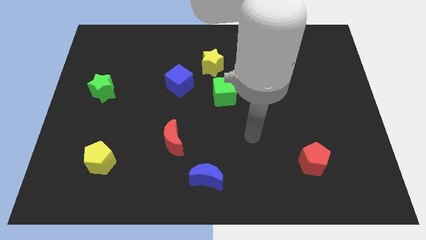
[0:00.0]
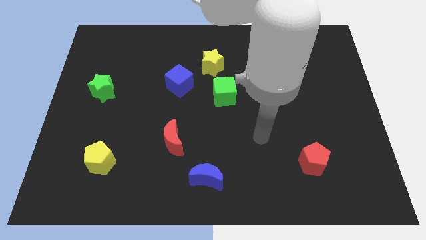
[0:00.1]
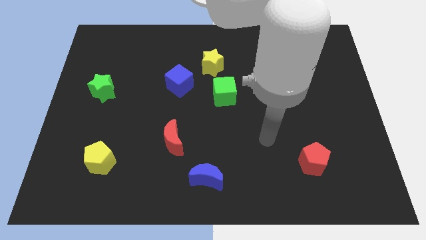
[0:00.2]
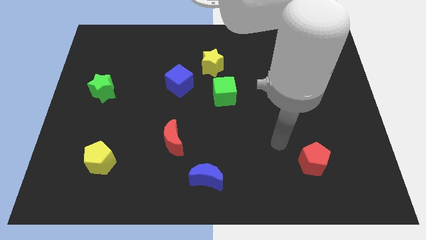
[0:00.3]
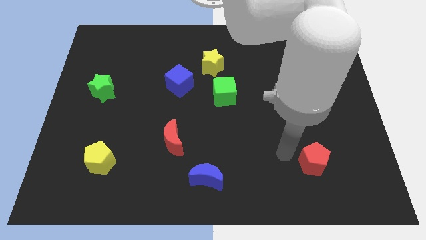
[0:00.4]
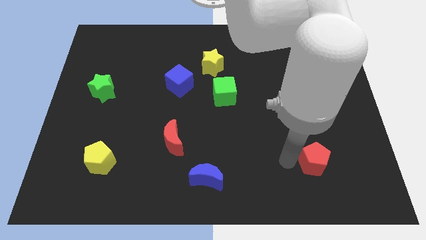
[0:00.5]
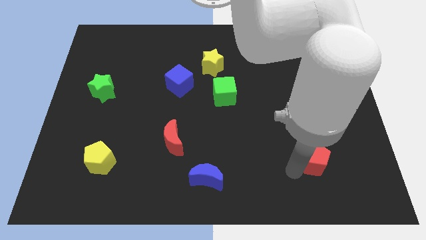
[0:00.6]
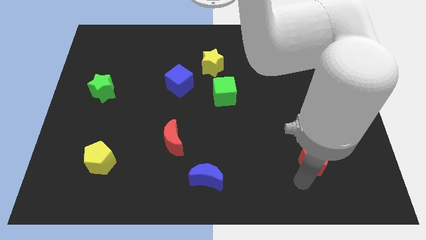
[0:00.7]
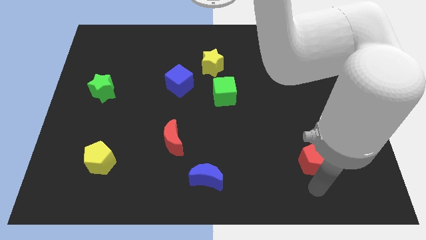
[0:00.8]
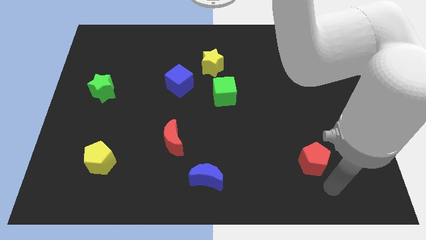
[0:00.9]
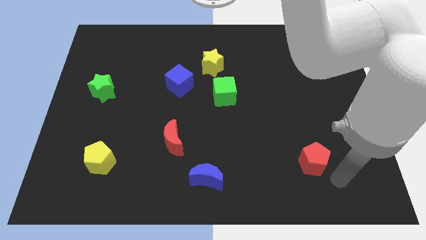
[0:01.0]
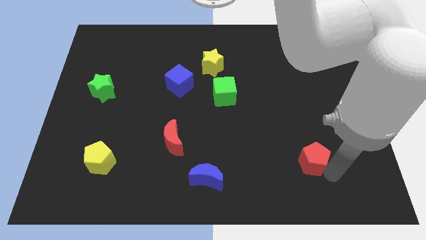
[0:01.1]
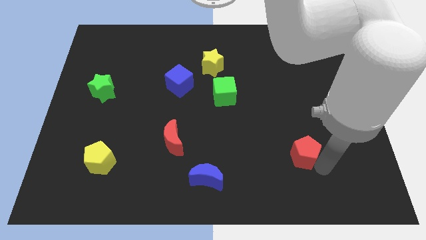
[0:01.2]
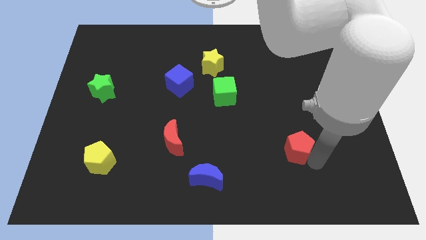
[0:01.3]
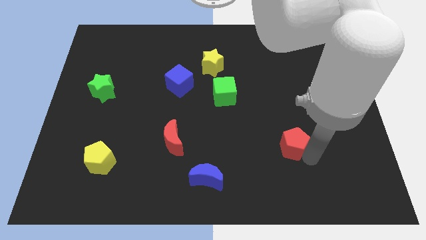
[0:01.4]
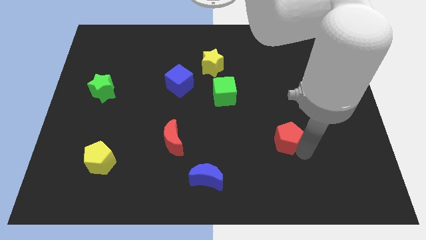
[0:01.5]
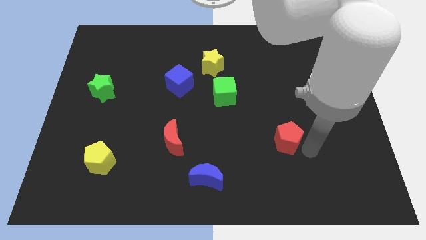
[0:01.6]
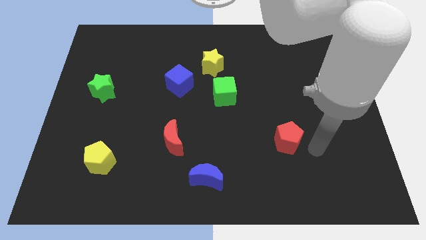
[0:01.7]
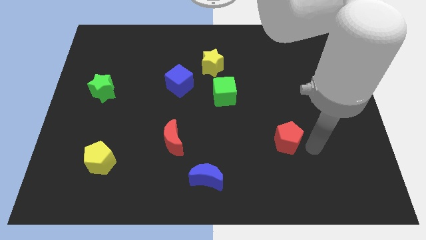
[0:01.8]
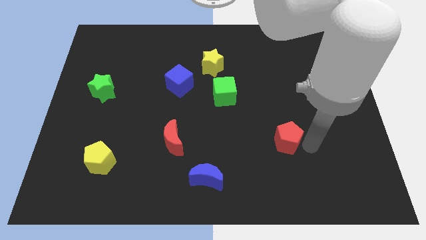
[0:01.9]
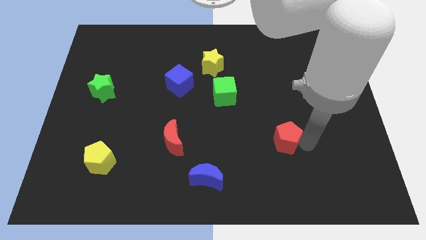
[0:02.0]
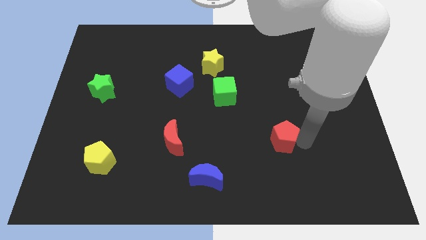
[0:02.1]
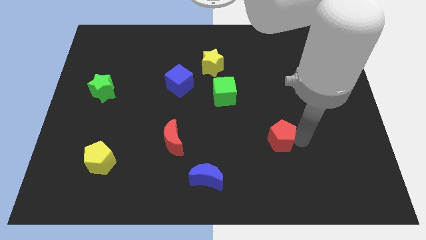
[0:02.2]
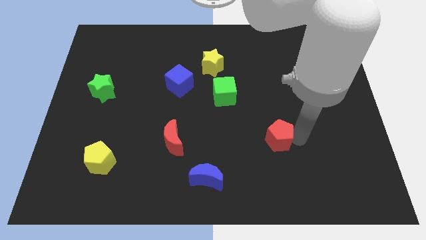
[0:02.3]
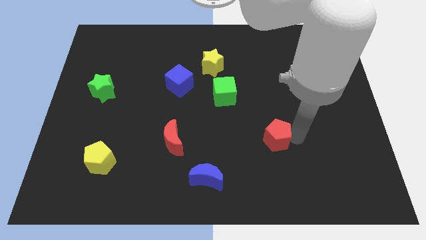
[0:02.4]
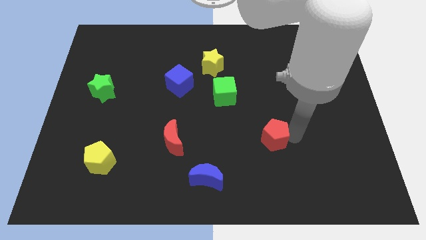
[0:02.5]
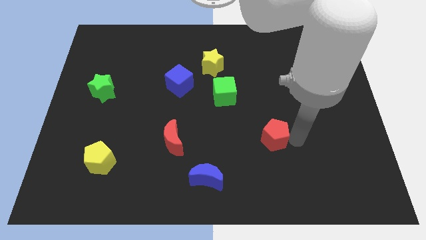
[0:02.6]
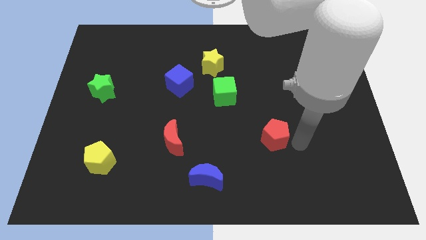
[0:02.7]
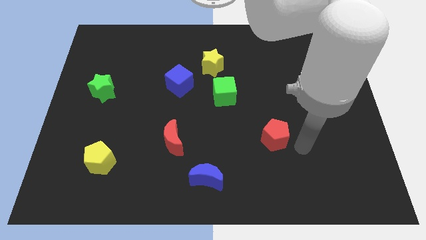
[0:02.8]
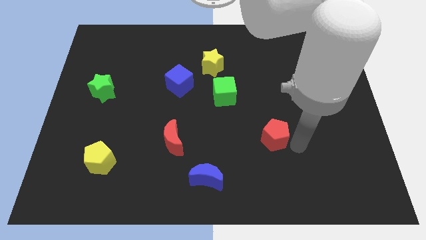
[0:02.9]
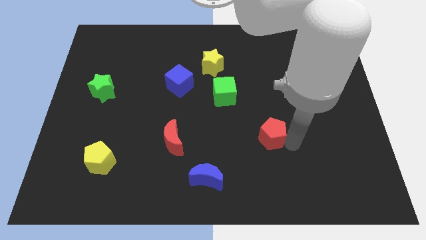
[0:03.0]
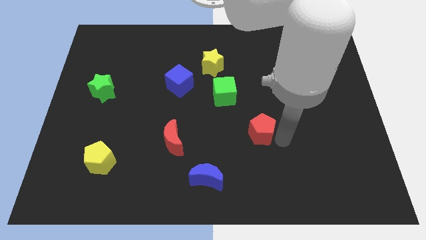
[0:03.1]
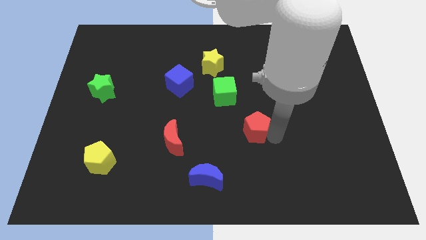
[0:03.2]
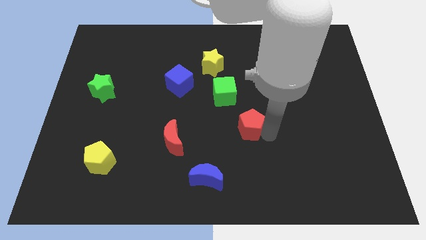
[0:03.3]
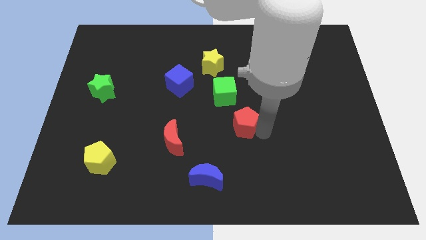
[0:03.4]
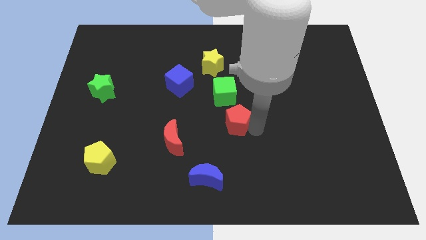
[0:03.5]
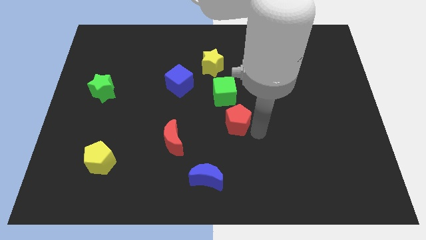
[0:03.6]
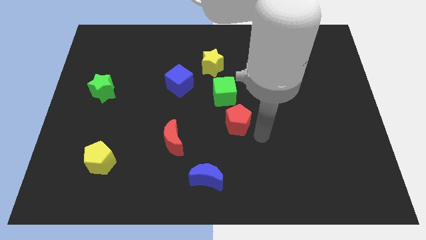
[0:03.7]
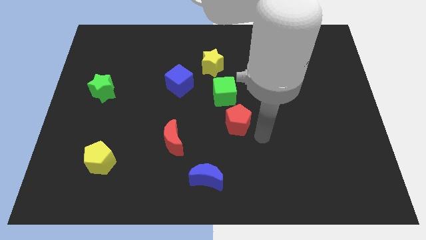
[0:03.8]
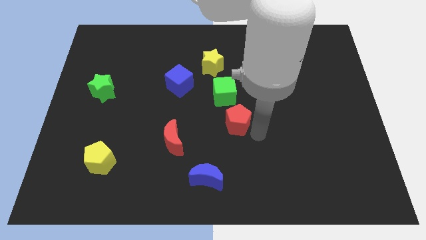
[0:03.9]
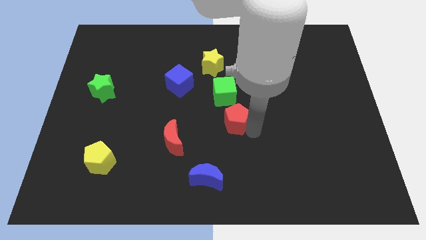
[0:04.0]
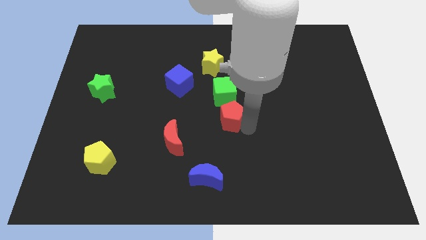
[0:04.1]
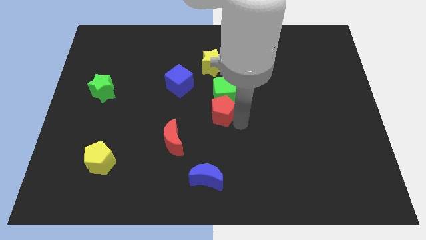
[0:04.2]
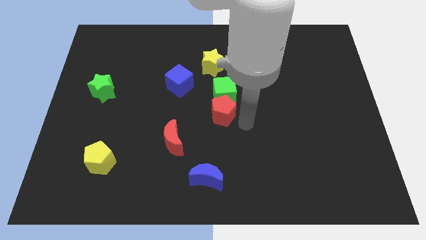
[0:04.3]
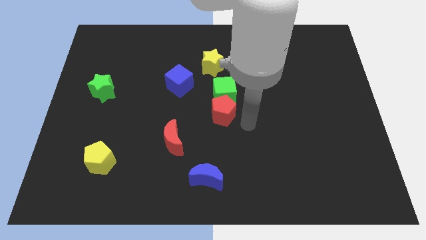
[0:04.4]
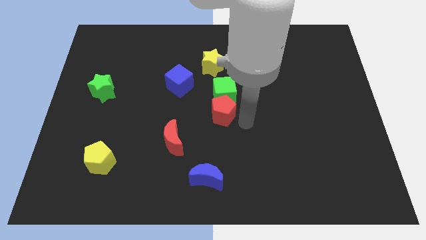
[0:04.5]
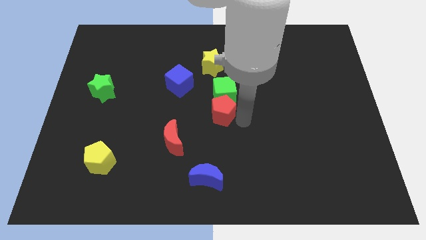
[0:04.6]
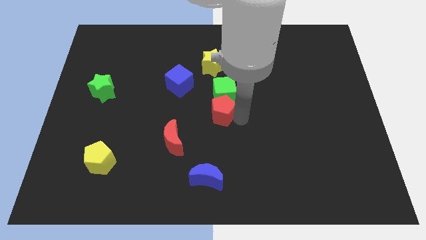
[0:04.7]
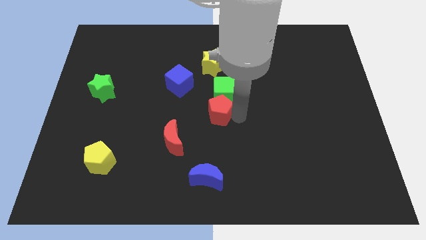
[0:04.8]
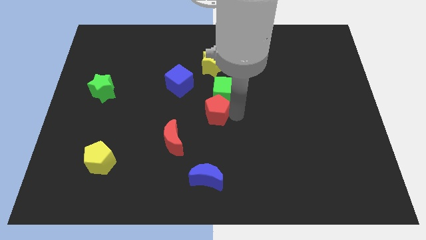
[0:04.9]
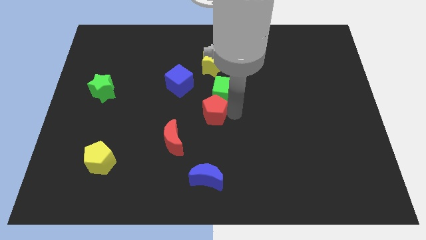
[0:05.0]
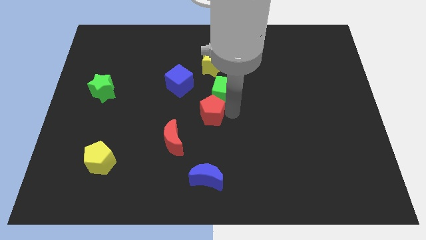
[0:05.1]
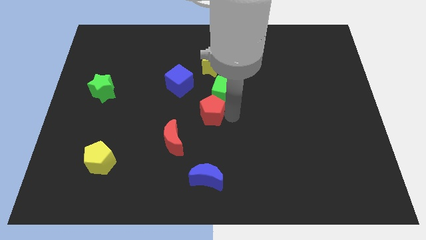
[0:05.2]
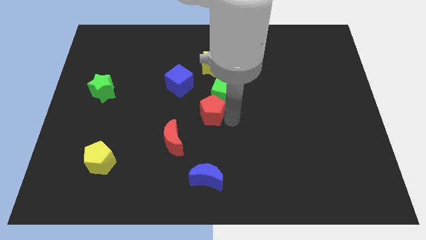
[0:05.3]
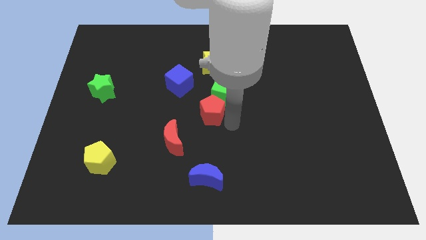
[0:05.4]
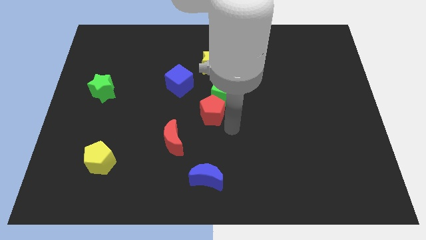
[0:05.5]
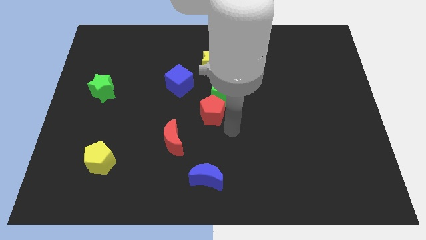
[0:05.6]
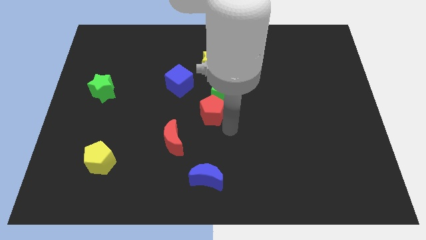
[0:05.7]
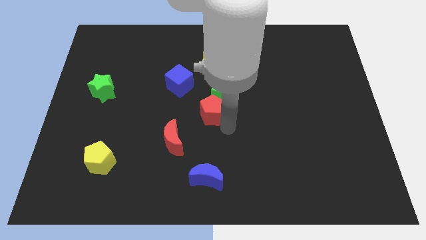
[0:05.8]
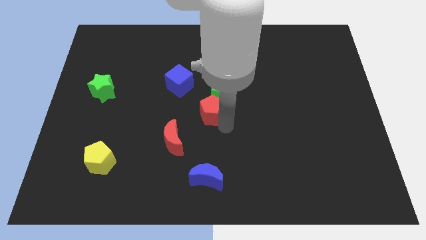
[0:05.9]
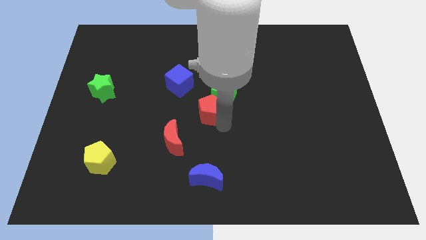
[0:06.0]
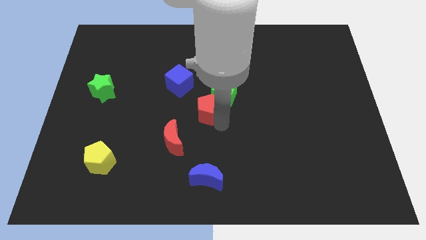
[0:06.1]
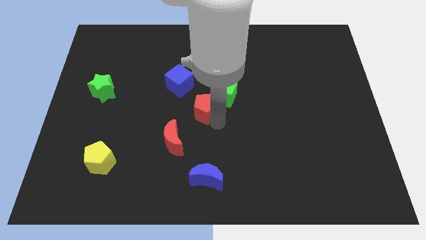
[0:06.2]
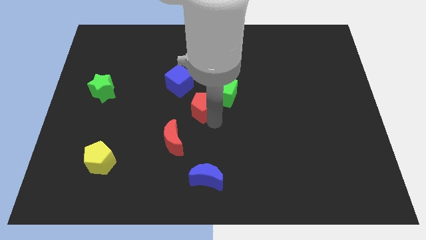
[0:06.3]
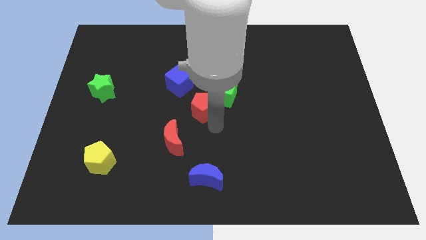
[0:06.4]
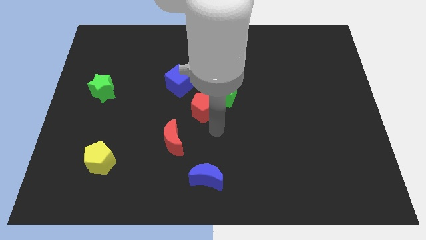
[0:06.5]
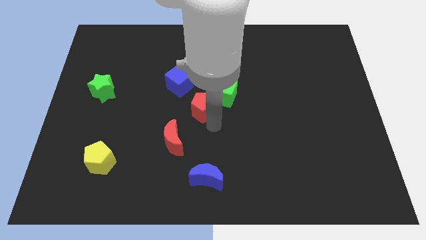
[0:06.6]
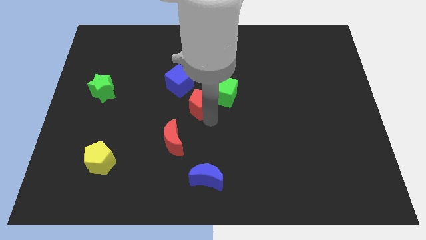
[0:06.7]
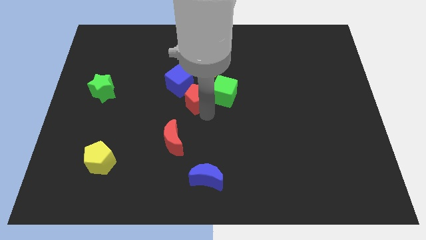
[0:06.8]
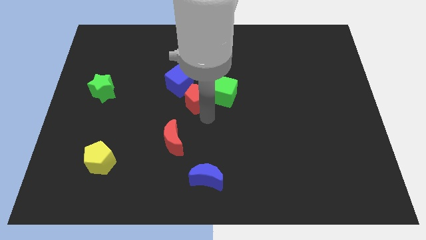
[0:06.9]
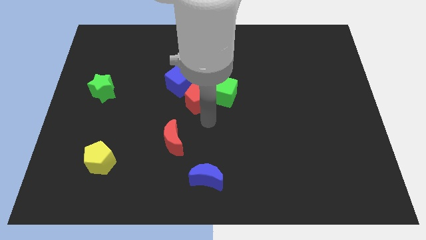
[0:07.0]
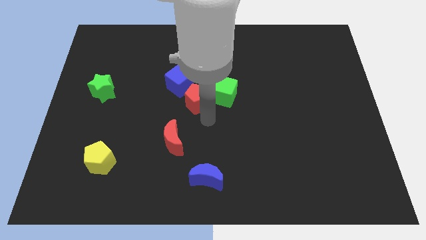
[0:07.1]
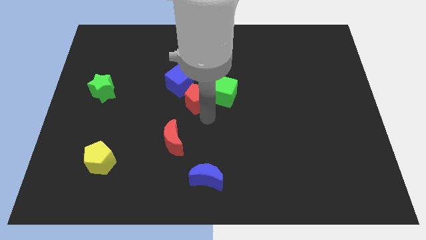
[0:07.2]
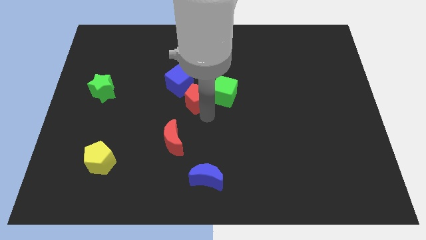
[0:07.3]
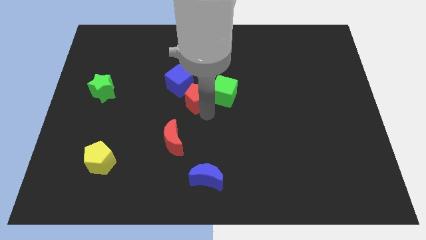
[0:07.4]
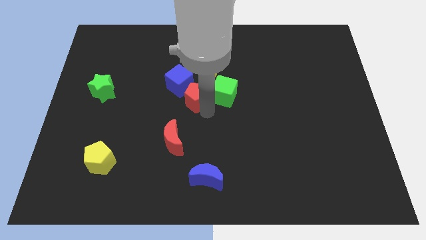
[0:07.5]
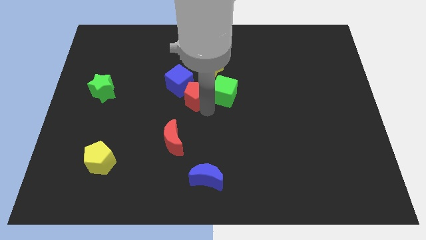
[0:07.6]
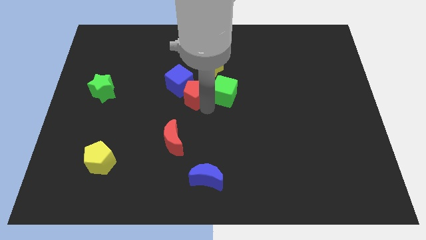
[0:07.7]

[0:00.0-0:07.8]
slide the red pentagon to the blue cube

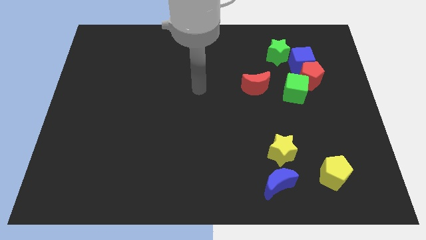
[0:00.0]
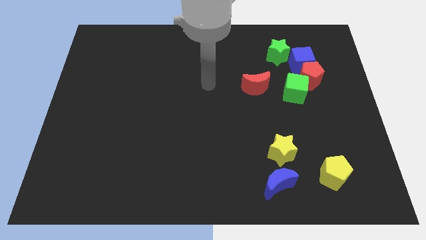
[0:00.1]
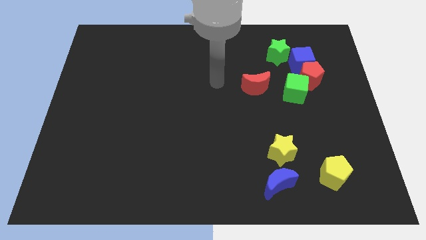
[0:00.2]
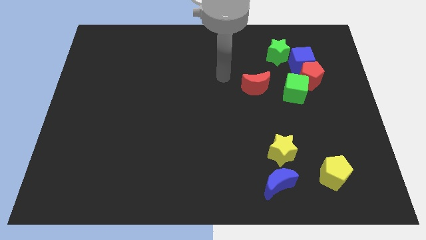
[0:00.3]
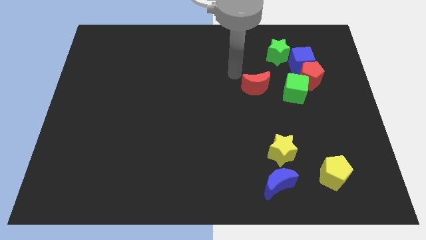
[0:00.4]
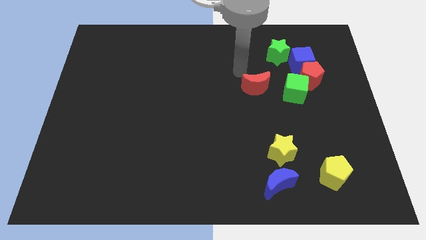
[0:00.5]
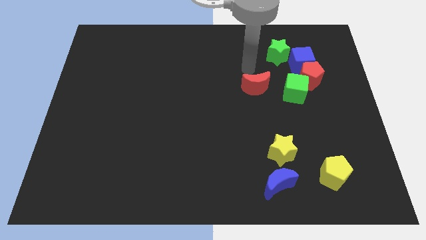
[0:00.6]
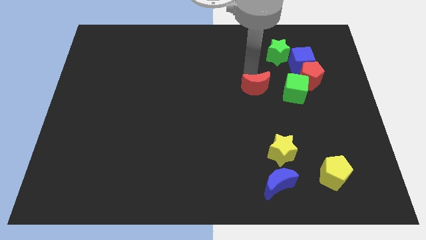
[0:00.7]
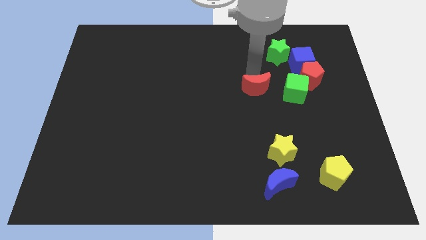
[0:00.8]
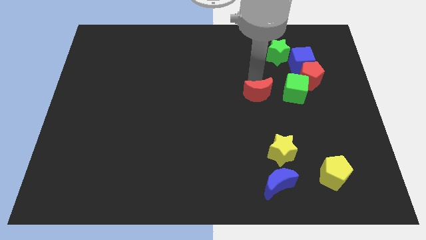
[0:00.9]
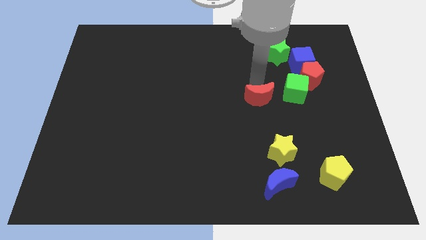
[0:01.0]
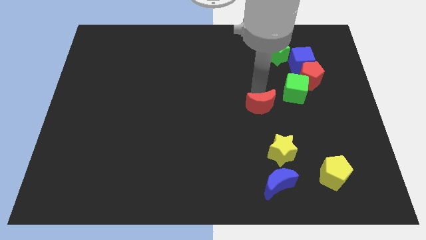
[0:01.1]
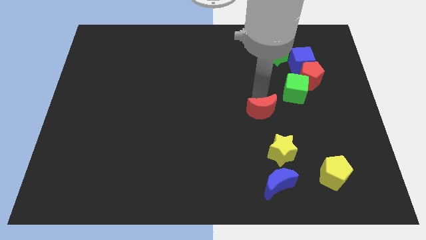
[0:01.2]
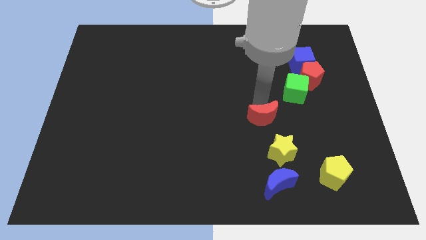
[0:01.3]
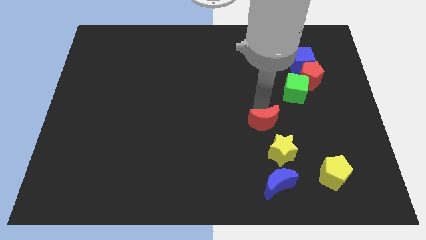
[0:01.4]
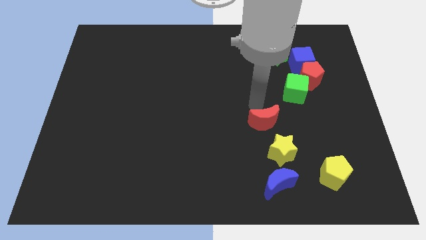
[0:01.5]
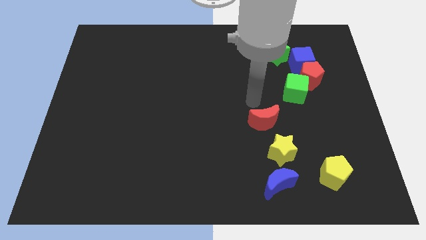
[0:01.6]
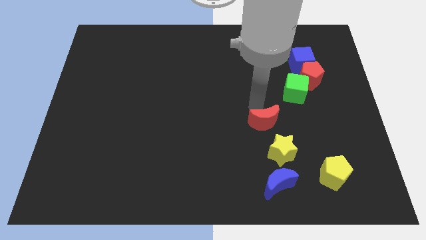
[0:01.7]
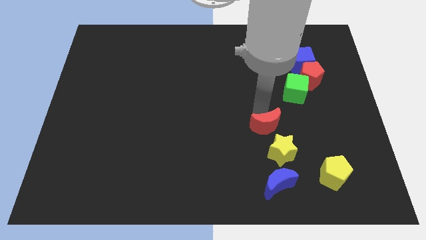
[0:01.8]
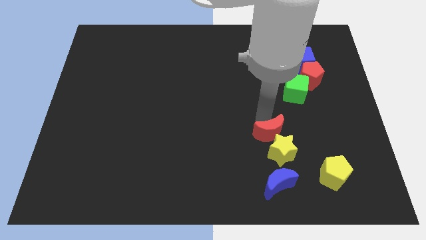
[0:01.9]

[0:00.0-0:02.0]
slide the red moon next to the yellow star
